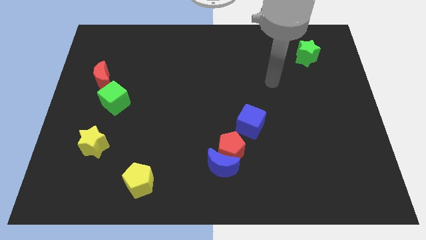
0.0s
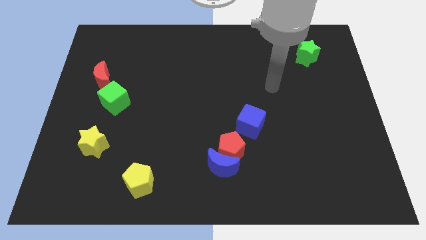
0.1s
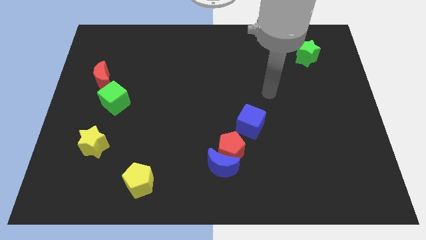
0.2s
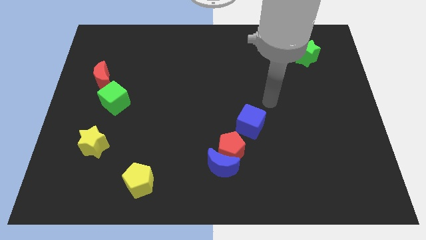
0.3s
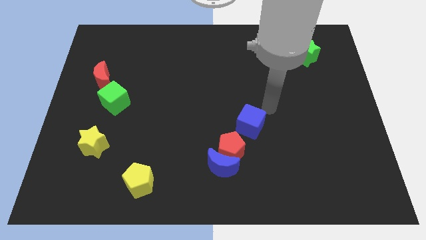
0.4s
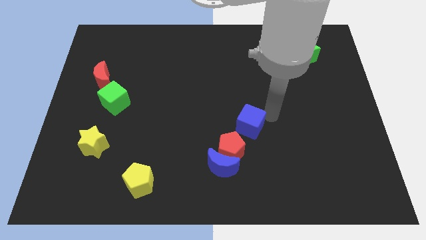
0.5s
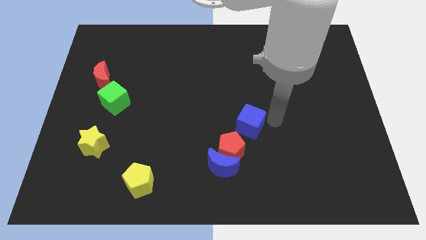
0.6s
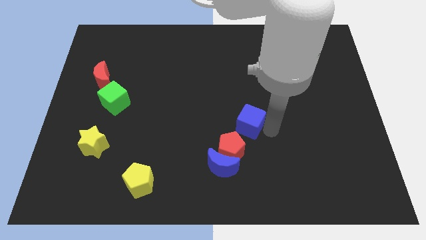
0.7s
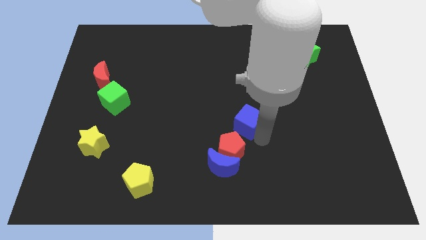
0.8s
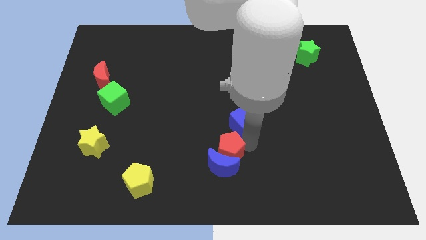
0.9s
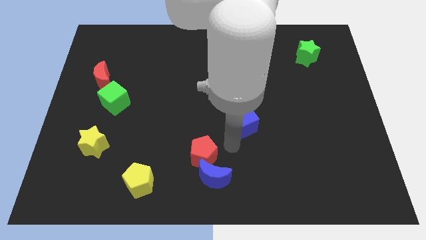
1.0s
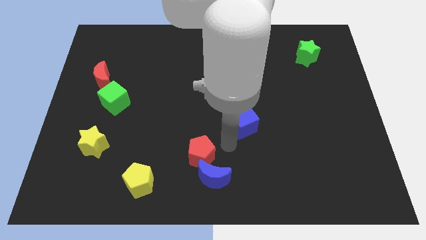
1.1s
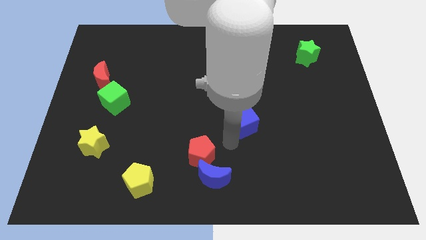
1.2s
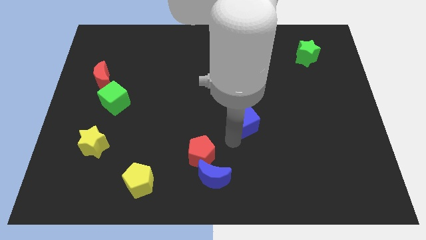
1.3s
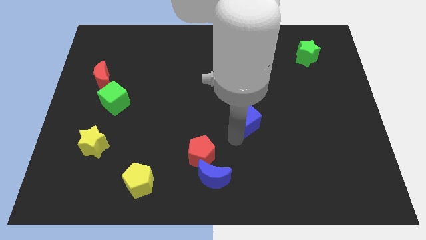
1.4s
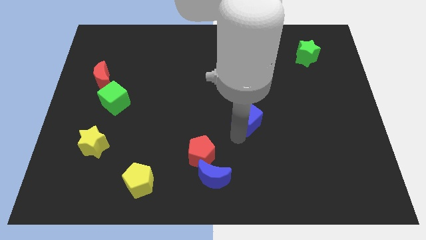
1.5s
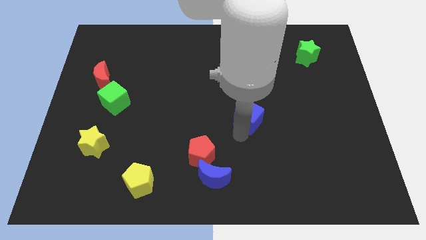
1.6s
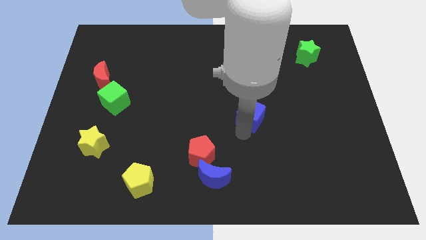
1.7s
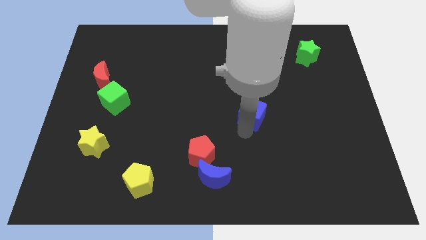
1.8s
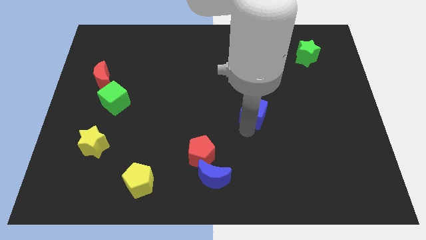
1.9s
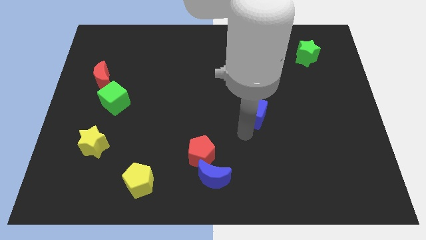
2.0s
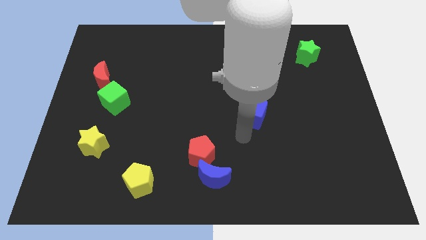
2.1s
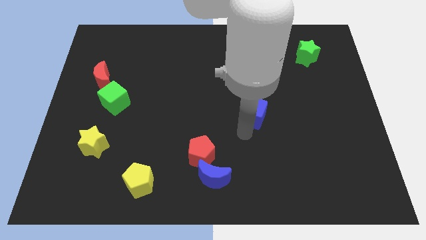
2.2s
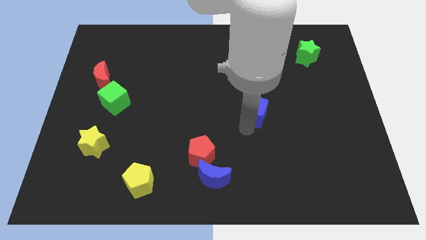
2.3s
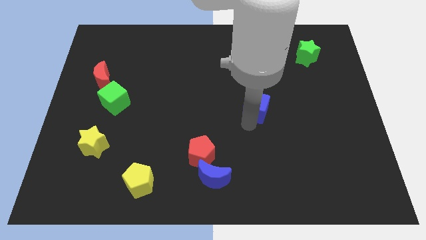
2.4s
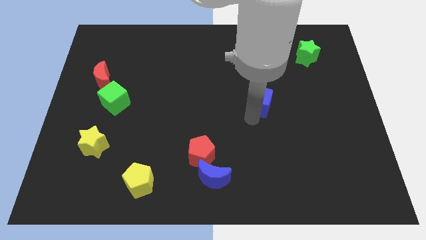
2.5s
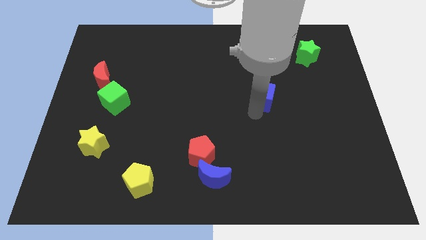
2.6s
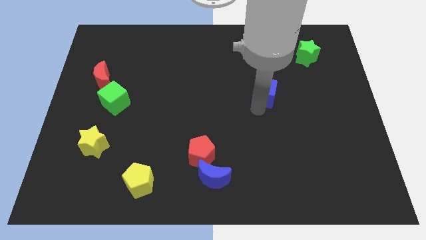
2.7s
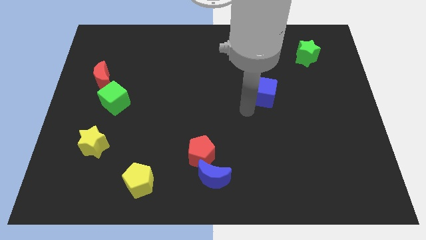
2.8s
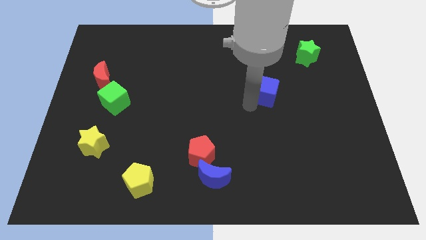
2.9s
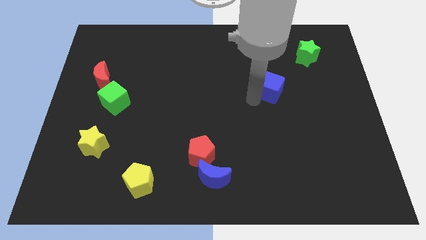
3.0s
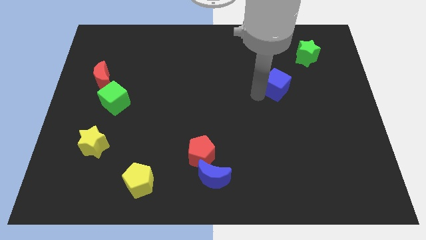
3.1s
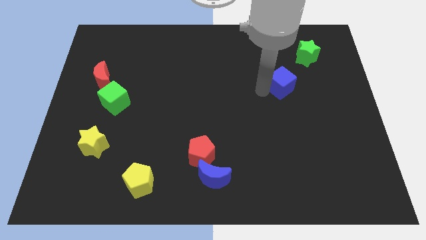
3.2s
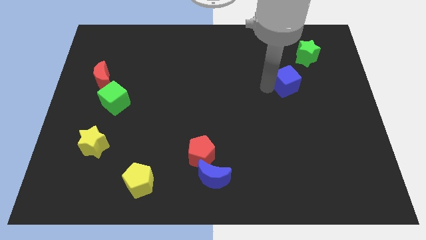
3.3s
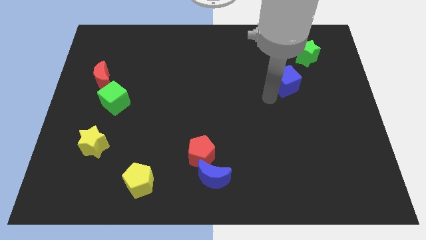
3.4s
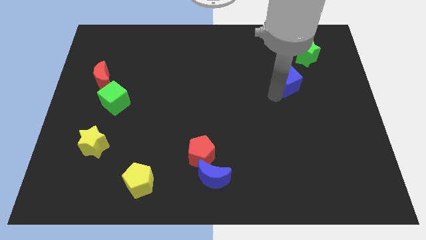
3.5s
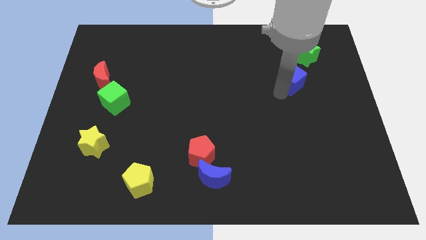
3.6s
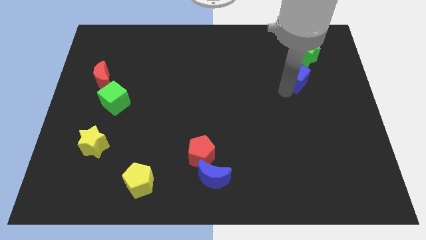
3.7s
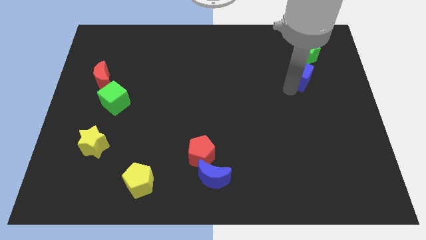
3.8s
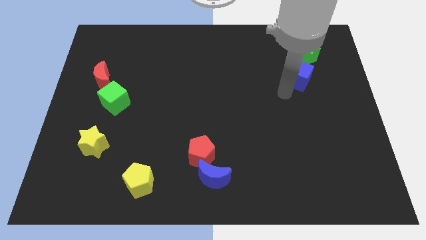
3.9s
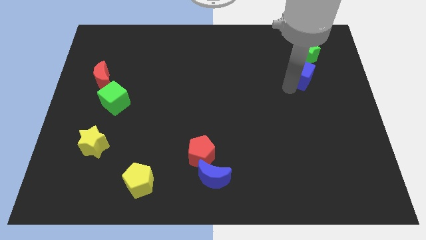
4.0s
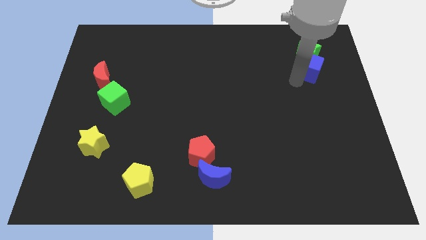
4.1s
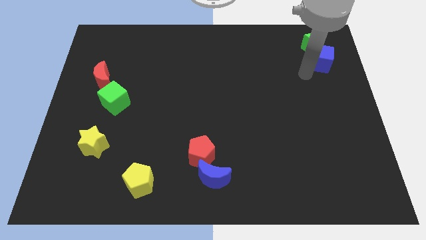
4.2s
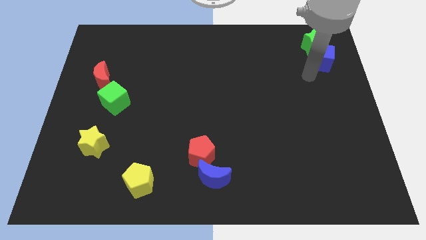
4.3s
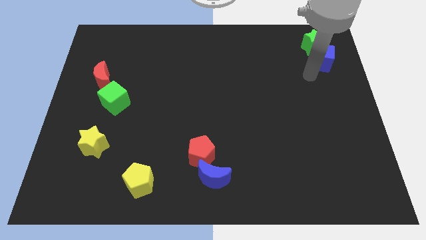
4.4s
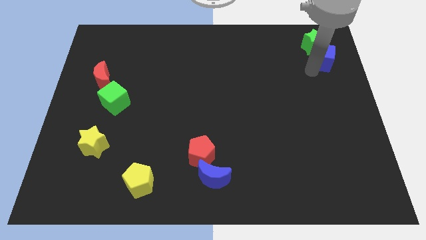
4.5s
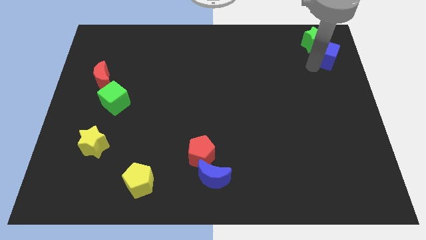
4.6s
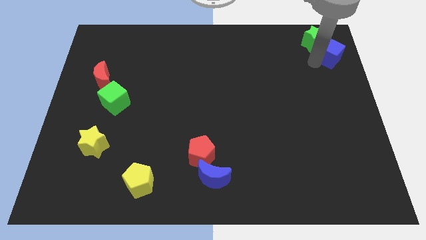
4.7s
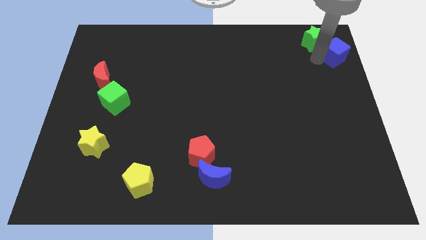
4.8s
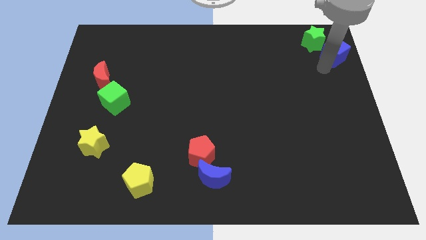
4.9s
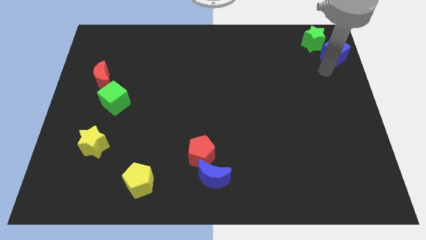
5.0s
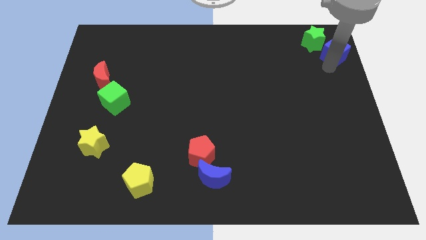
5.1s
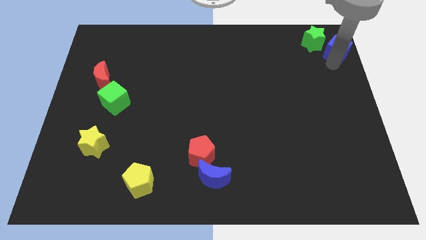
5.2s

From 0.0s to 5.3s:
put the blue cube to the top right

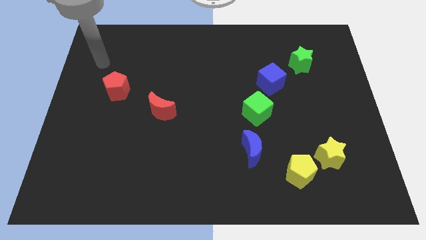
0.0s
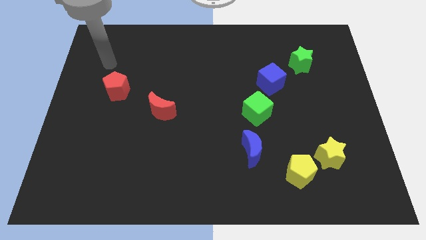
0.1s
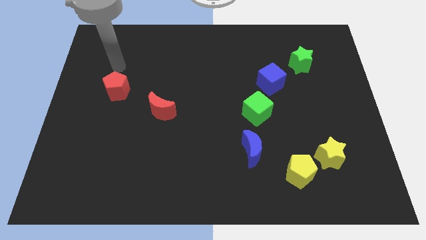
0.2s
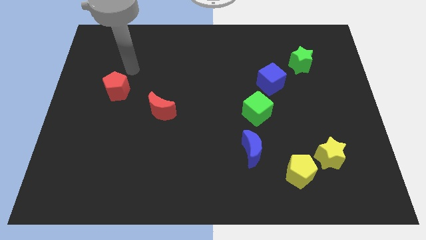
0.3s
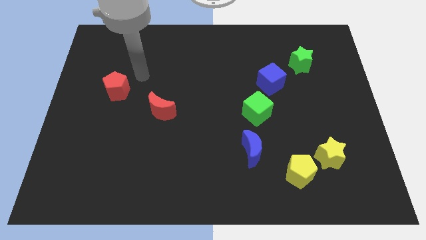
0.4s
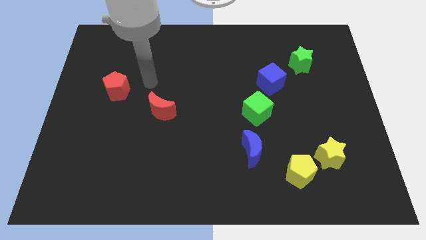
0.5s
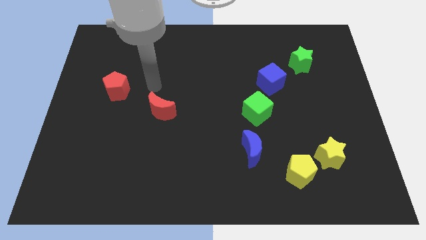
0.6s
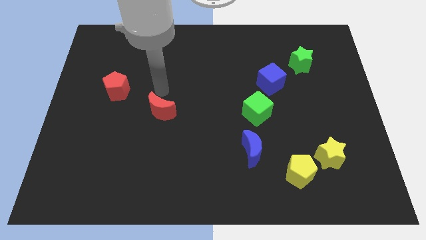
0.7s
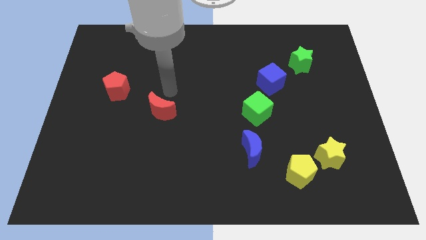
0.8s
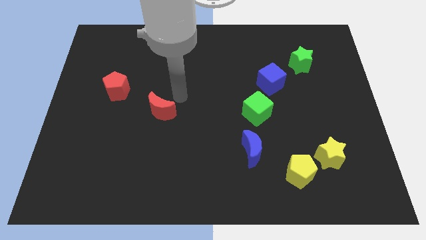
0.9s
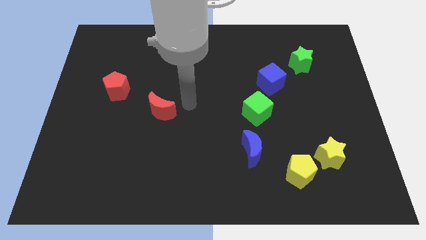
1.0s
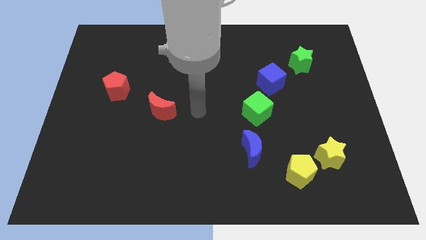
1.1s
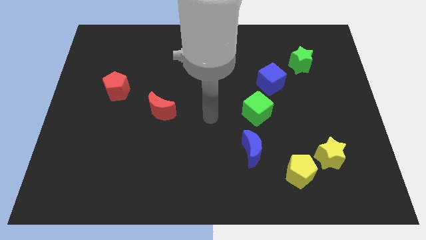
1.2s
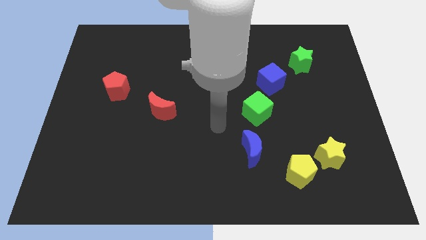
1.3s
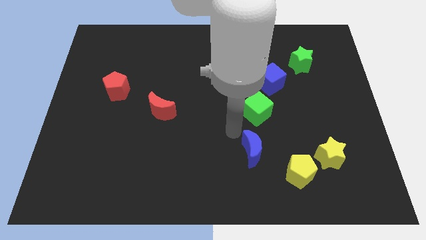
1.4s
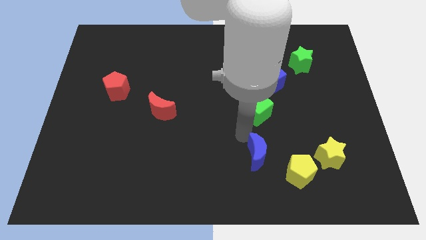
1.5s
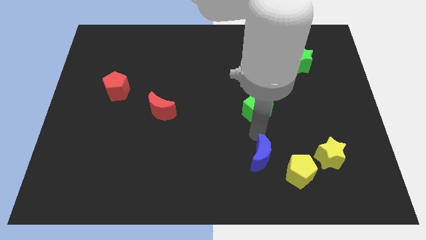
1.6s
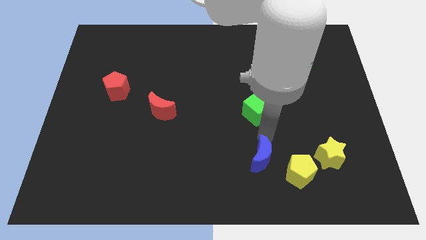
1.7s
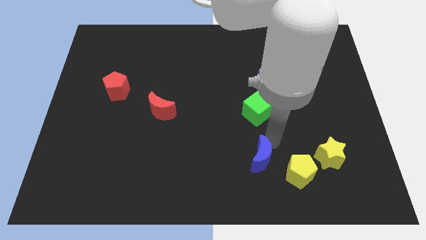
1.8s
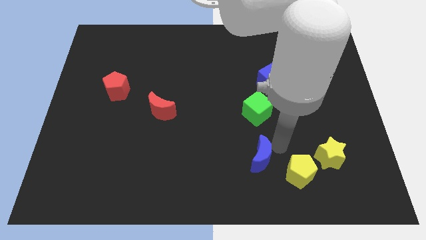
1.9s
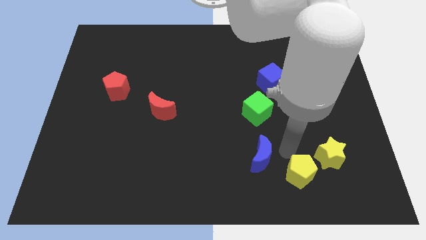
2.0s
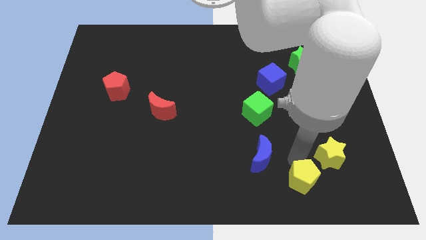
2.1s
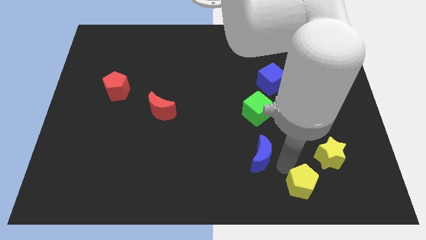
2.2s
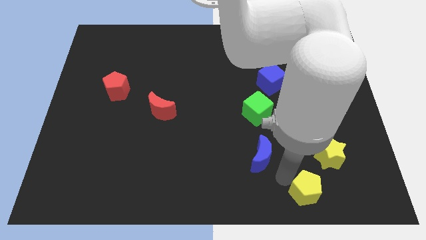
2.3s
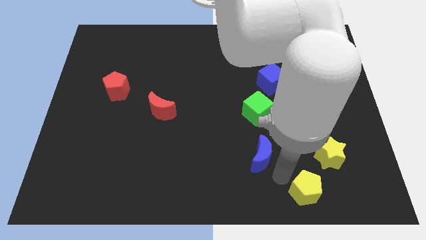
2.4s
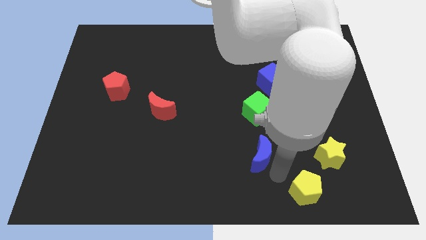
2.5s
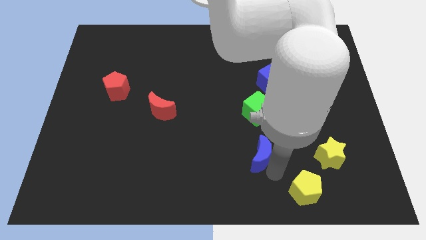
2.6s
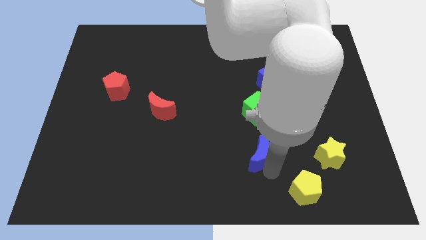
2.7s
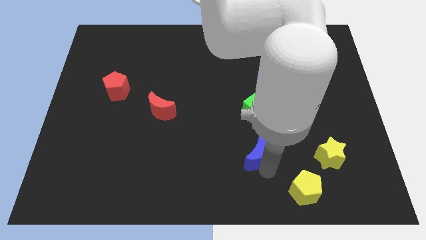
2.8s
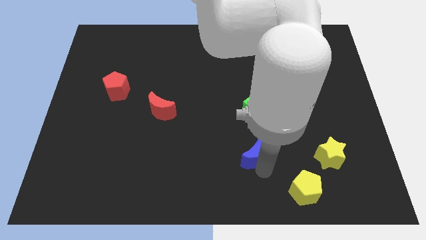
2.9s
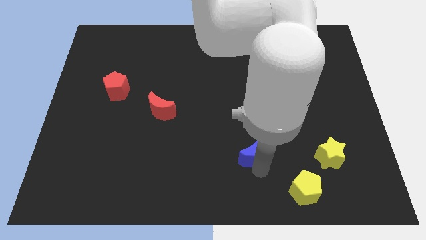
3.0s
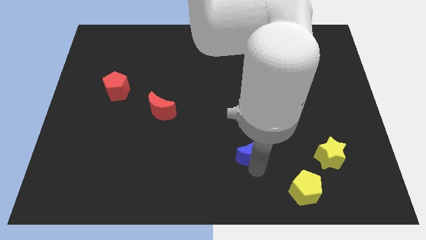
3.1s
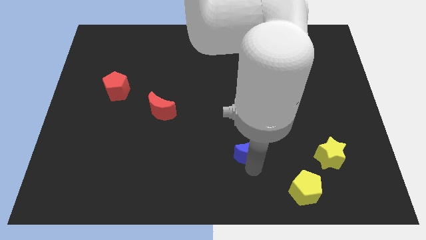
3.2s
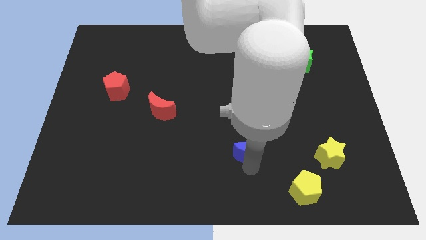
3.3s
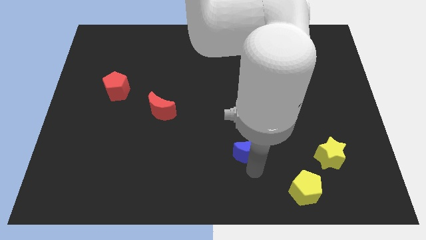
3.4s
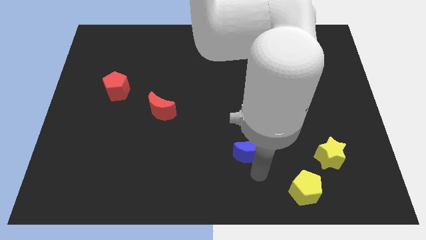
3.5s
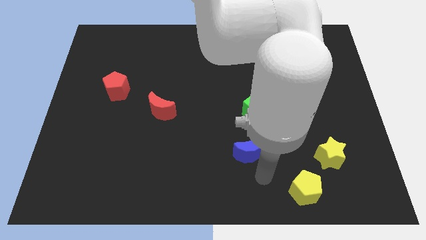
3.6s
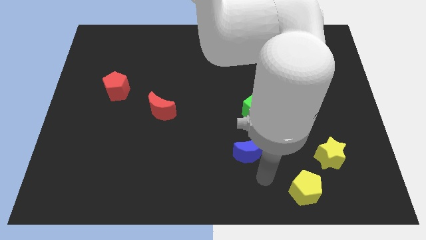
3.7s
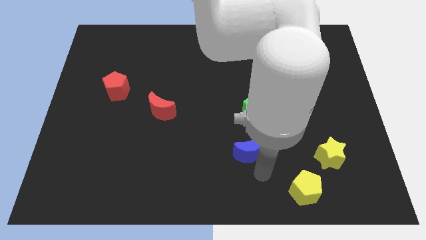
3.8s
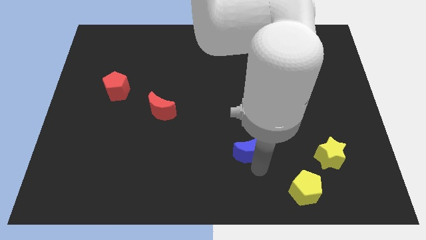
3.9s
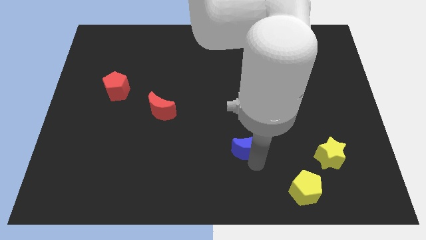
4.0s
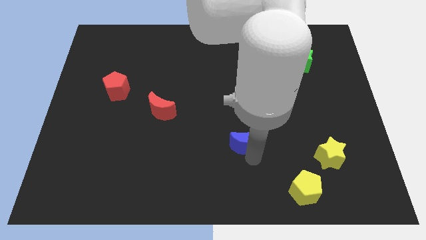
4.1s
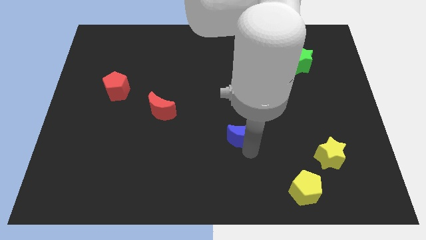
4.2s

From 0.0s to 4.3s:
push the blue moon to the middle of the board
